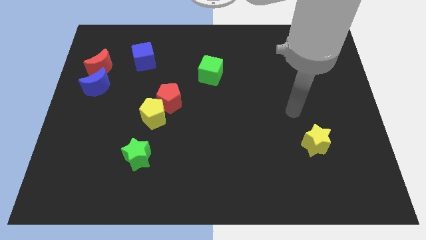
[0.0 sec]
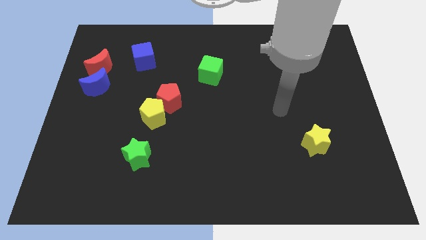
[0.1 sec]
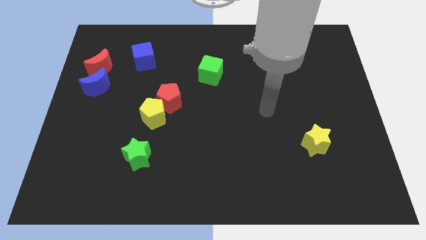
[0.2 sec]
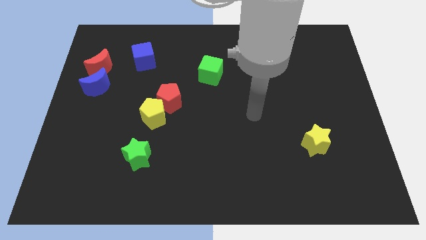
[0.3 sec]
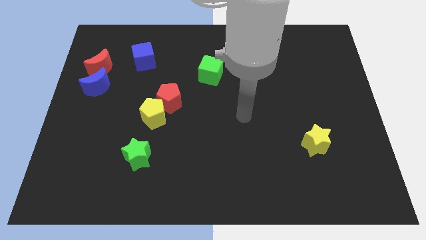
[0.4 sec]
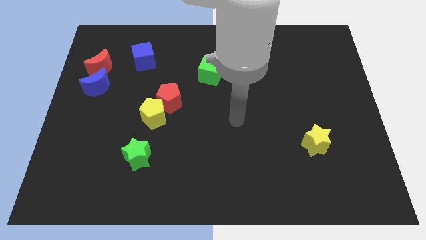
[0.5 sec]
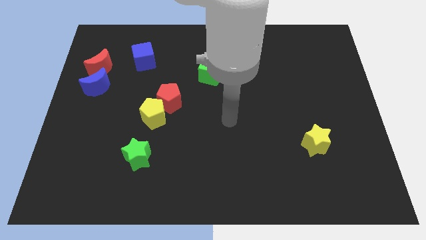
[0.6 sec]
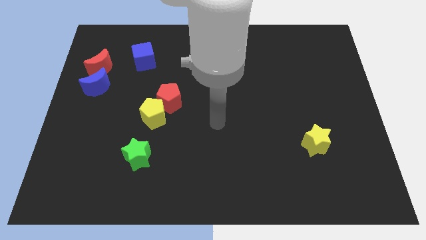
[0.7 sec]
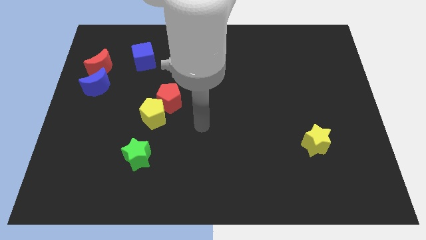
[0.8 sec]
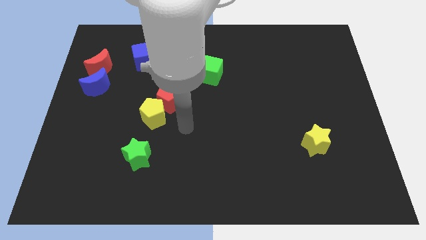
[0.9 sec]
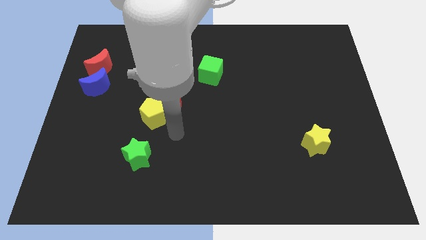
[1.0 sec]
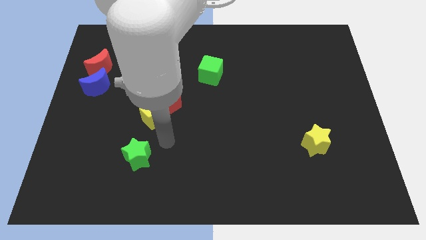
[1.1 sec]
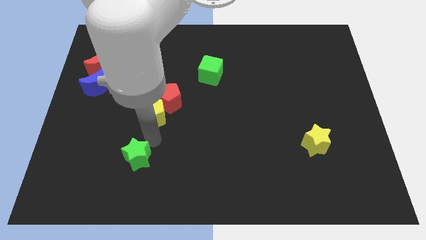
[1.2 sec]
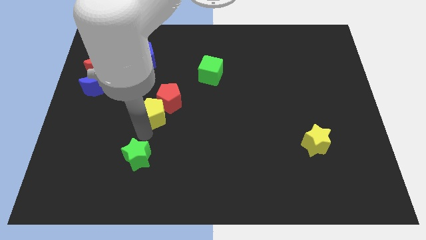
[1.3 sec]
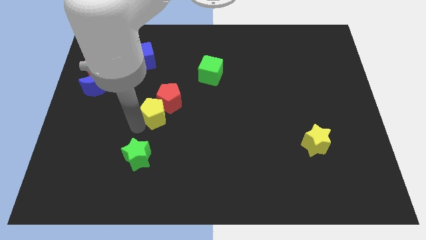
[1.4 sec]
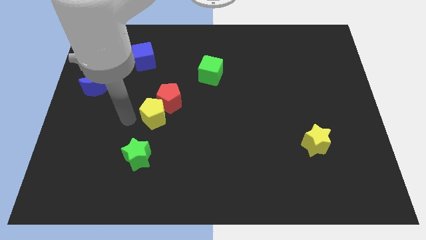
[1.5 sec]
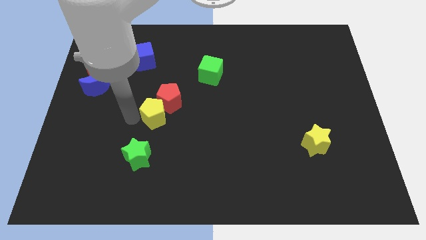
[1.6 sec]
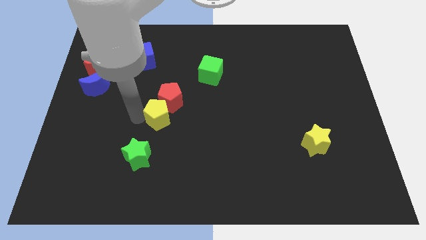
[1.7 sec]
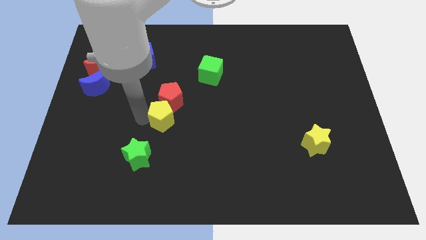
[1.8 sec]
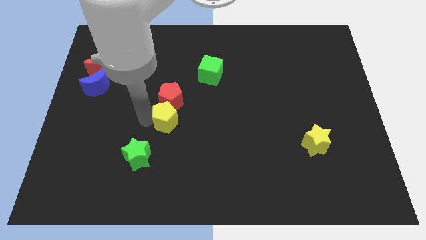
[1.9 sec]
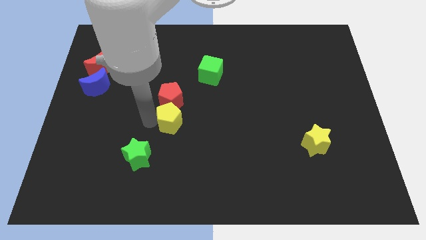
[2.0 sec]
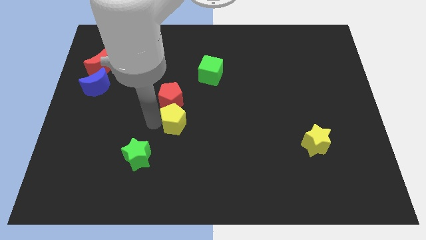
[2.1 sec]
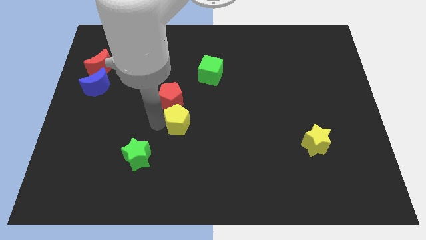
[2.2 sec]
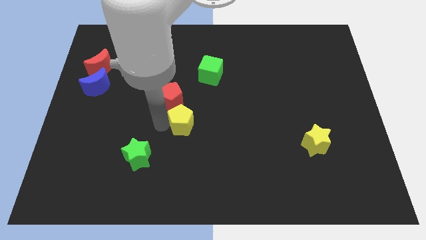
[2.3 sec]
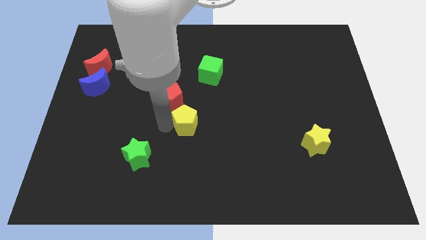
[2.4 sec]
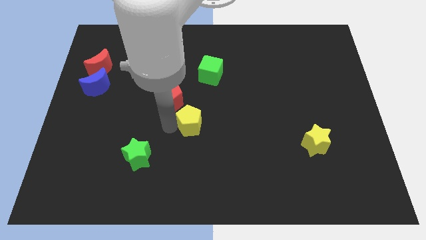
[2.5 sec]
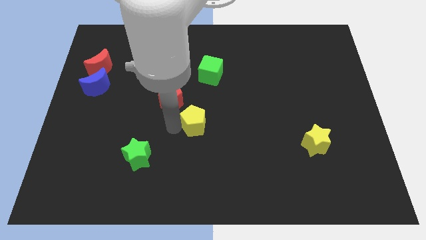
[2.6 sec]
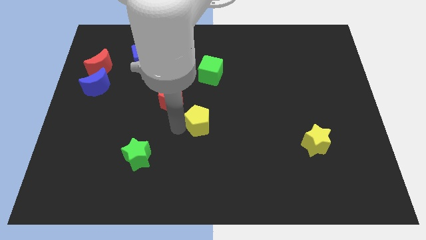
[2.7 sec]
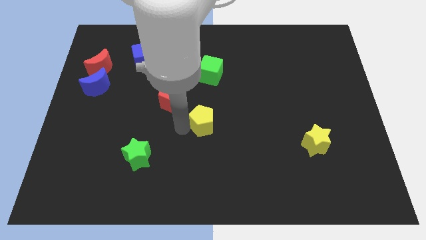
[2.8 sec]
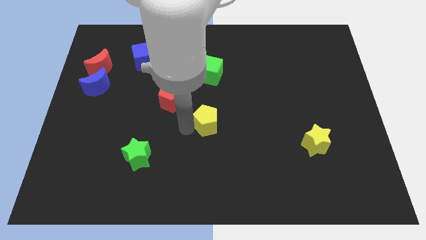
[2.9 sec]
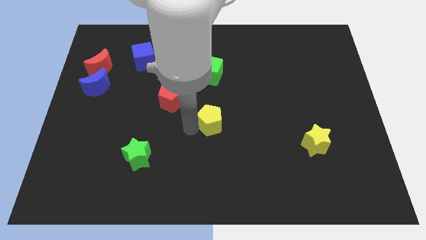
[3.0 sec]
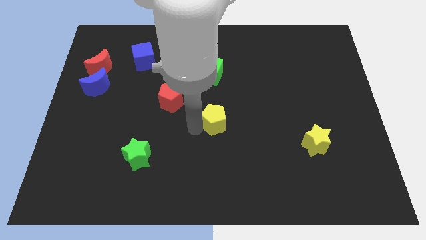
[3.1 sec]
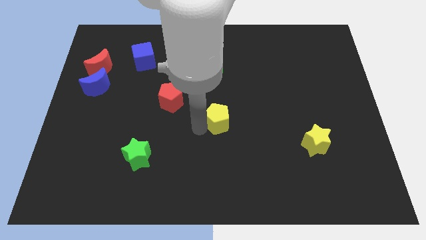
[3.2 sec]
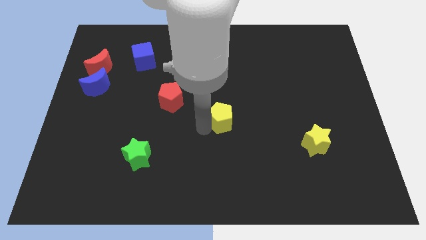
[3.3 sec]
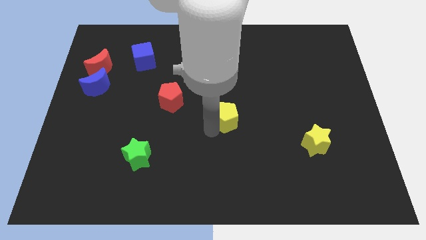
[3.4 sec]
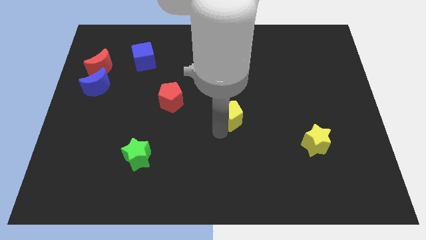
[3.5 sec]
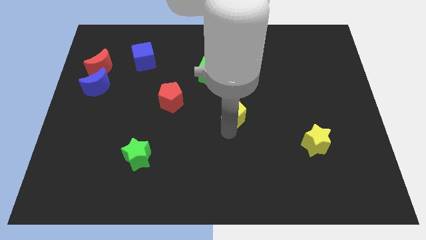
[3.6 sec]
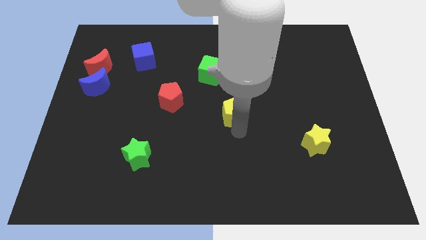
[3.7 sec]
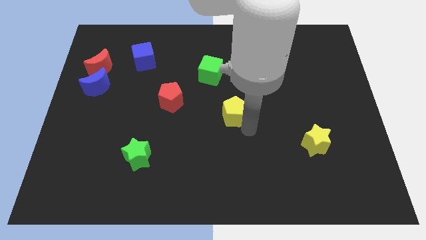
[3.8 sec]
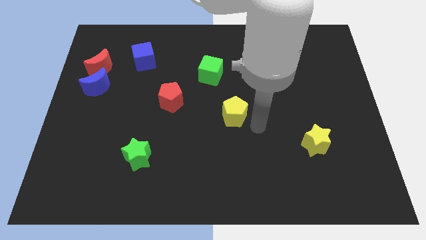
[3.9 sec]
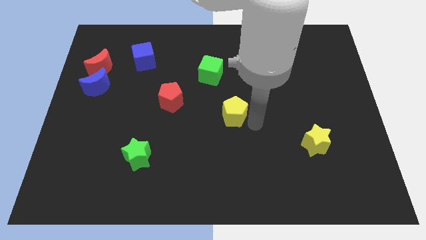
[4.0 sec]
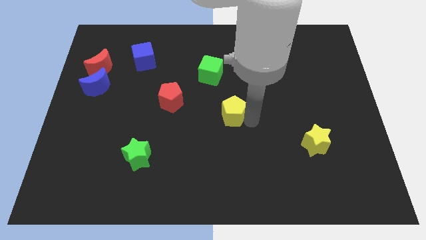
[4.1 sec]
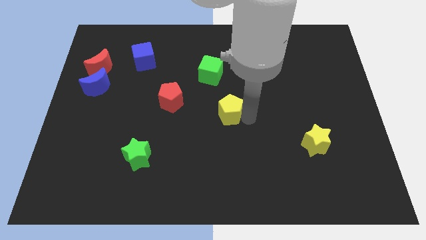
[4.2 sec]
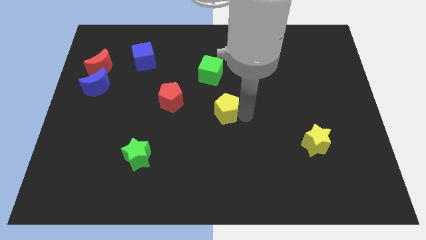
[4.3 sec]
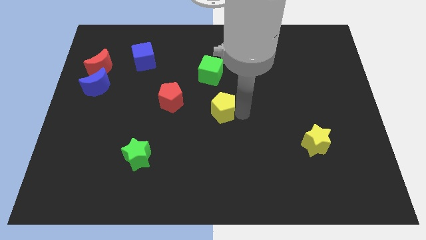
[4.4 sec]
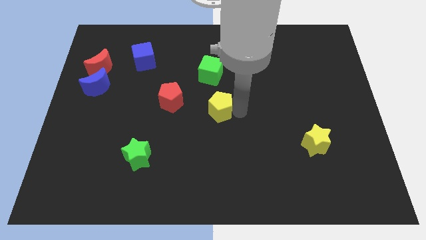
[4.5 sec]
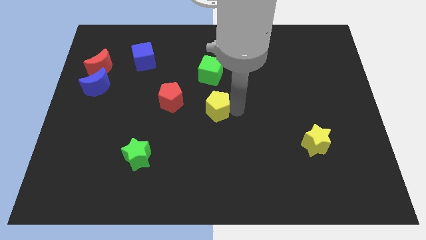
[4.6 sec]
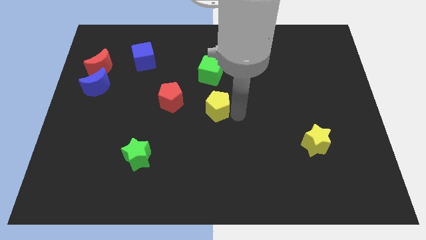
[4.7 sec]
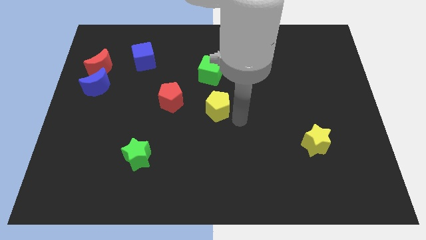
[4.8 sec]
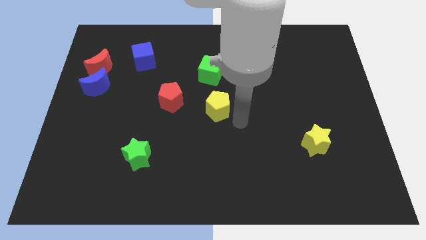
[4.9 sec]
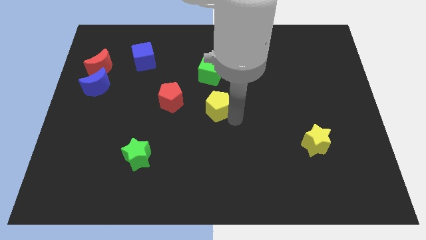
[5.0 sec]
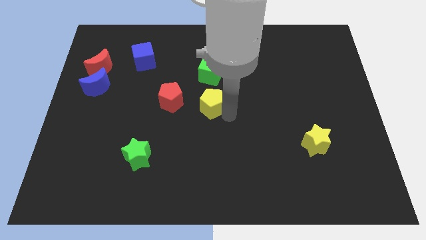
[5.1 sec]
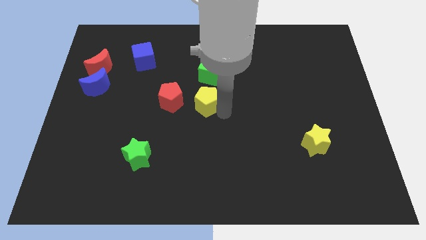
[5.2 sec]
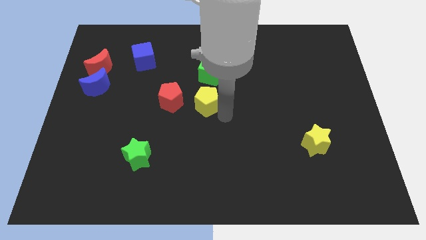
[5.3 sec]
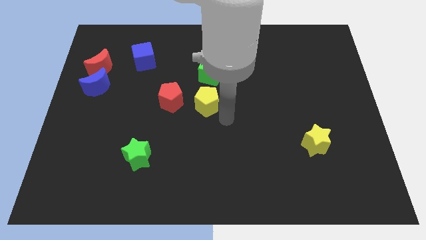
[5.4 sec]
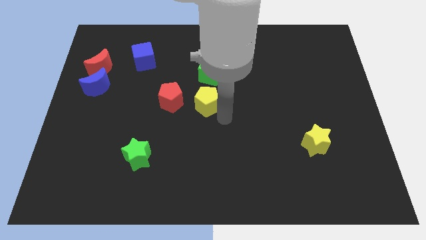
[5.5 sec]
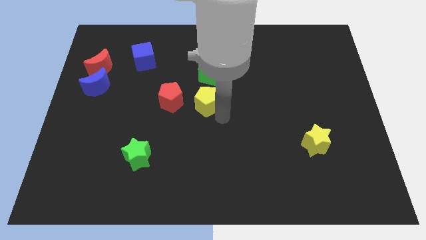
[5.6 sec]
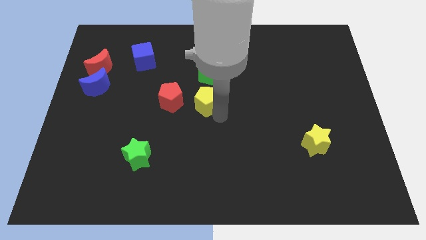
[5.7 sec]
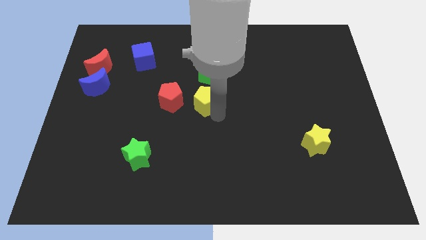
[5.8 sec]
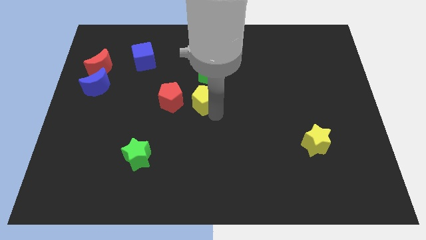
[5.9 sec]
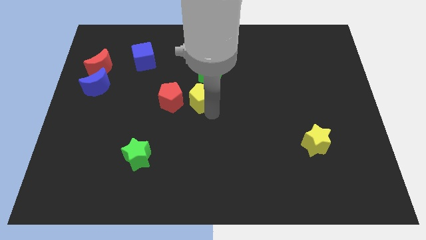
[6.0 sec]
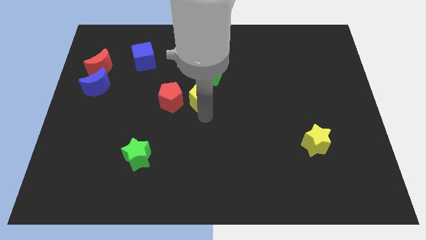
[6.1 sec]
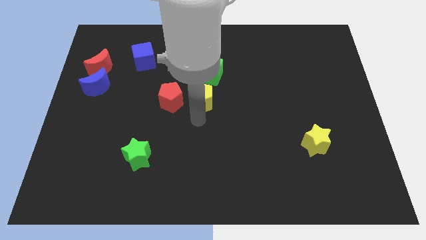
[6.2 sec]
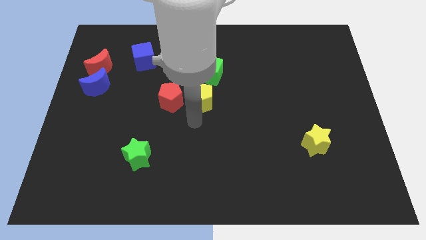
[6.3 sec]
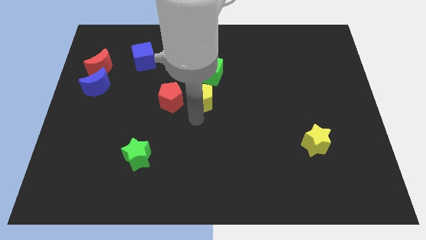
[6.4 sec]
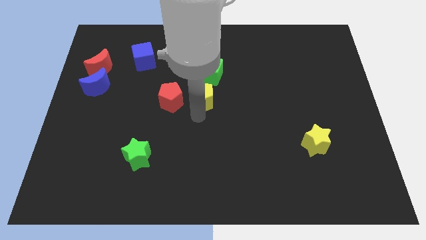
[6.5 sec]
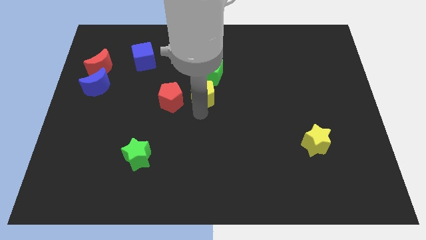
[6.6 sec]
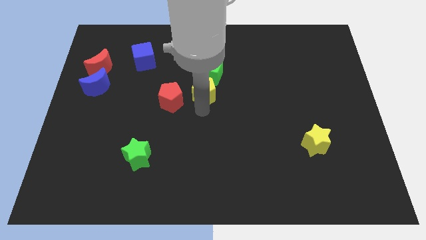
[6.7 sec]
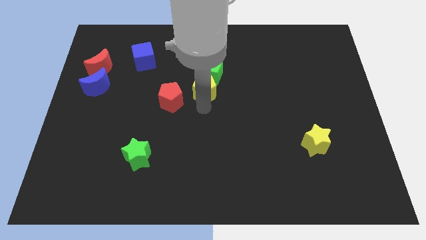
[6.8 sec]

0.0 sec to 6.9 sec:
push the yellow pentagon to the green cube

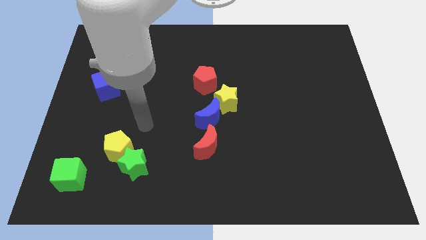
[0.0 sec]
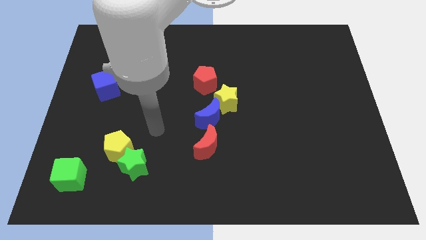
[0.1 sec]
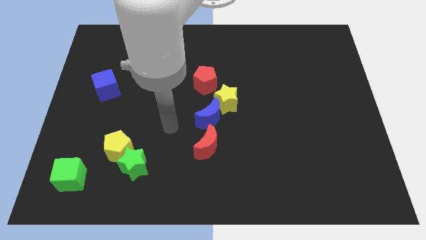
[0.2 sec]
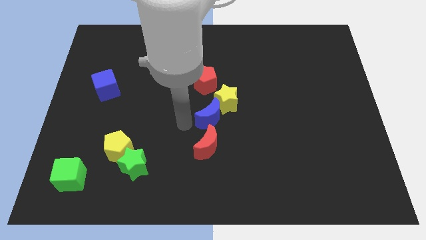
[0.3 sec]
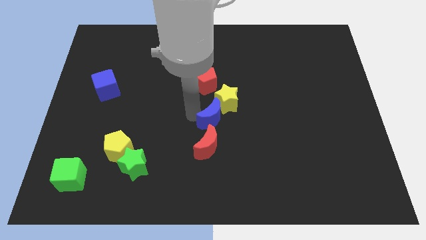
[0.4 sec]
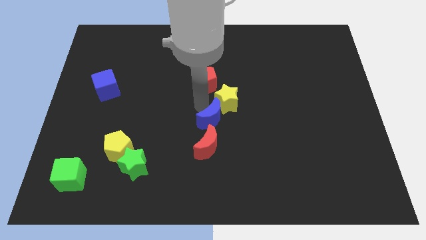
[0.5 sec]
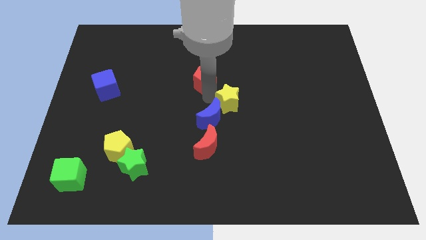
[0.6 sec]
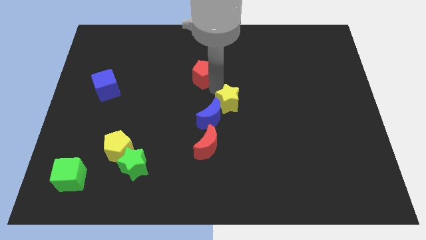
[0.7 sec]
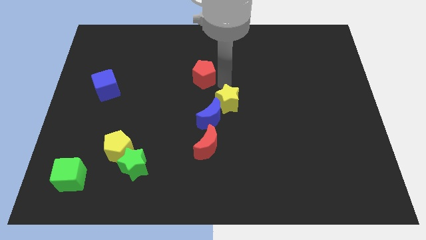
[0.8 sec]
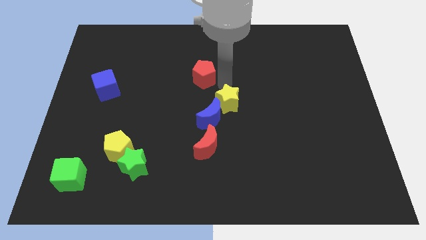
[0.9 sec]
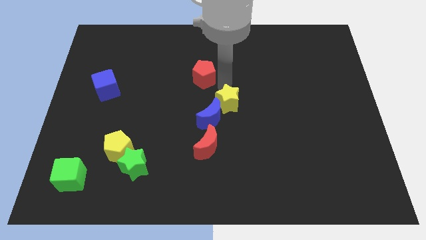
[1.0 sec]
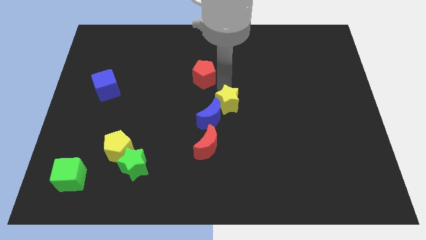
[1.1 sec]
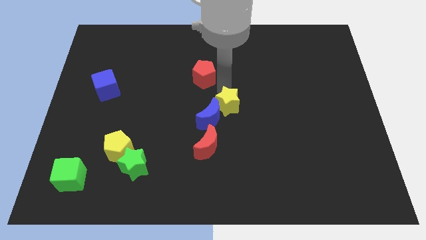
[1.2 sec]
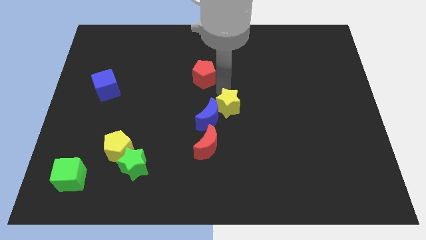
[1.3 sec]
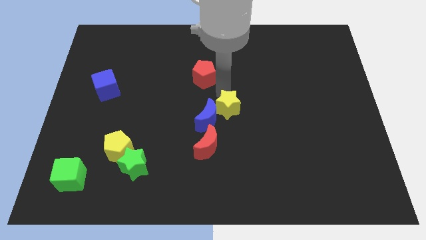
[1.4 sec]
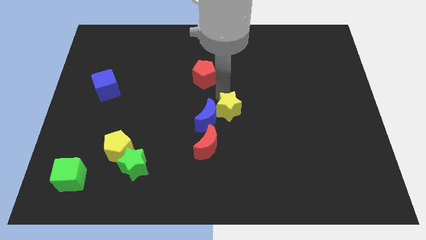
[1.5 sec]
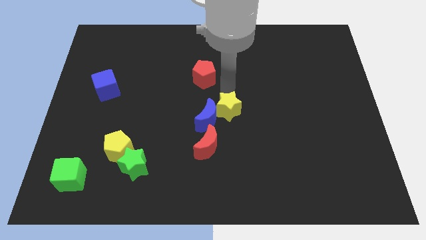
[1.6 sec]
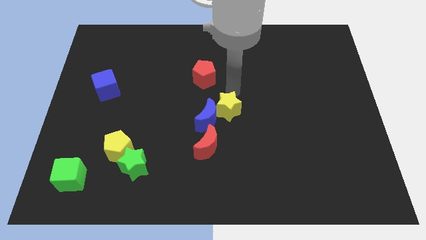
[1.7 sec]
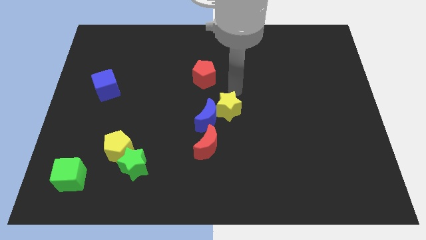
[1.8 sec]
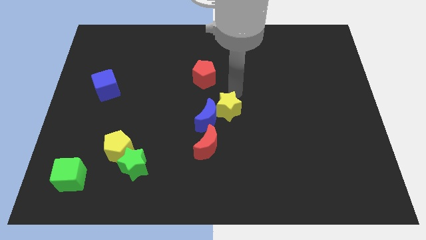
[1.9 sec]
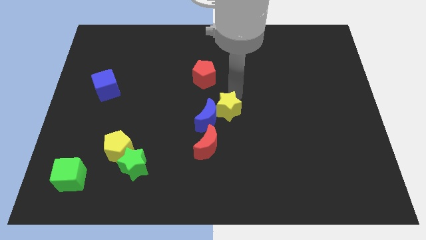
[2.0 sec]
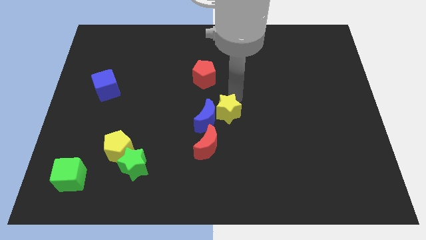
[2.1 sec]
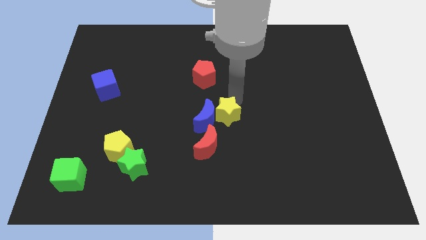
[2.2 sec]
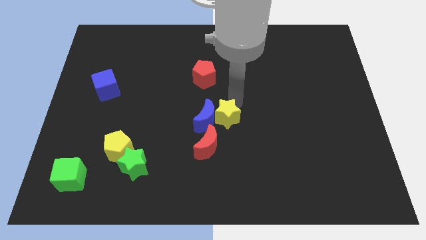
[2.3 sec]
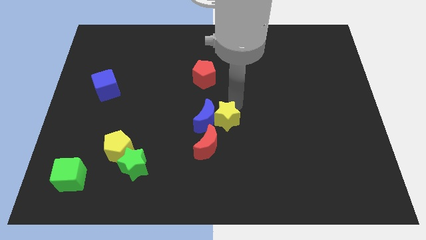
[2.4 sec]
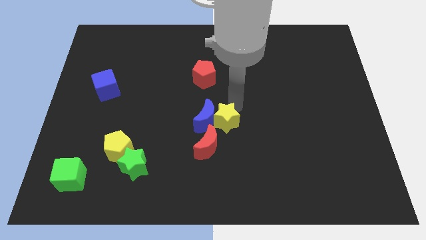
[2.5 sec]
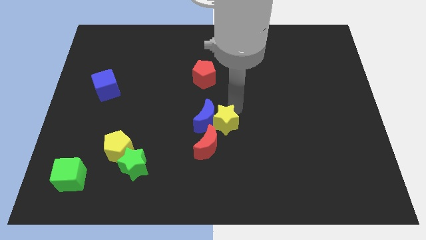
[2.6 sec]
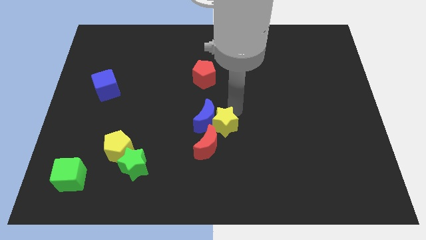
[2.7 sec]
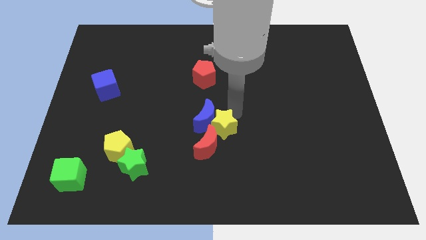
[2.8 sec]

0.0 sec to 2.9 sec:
put the yellow star to the red moon
